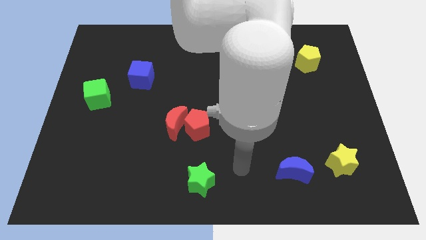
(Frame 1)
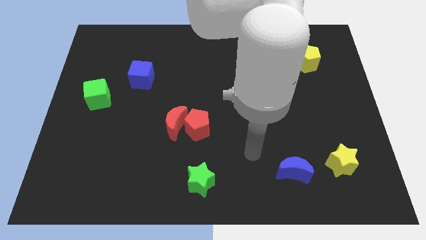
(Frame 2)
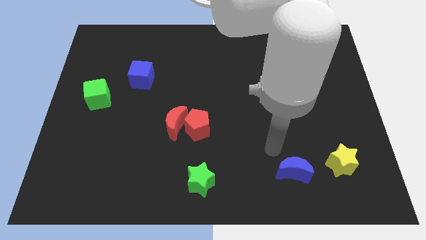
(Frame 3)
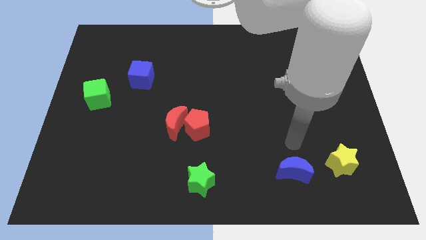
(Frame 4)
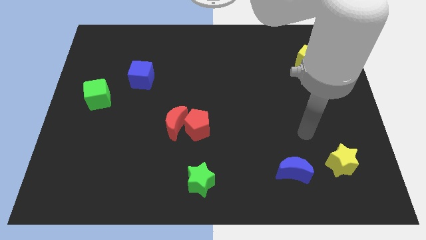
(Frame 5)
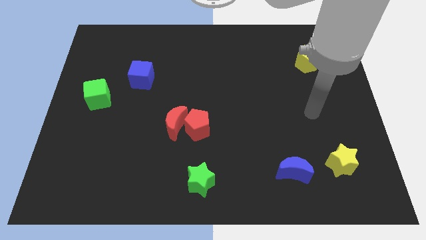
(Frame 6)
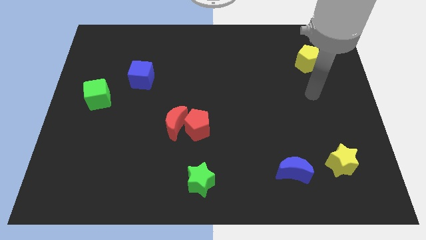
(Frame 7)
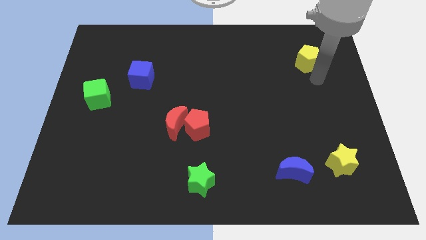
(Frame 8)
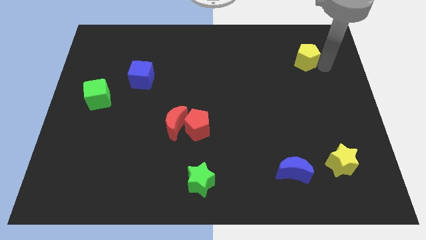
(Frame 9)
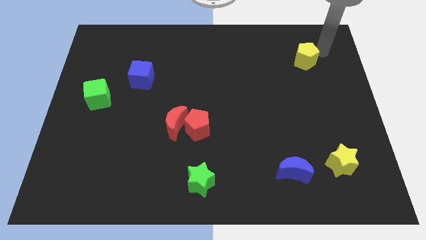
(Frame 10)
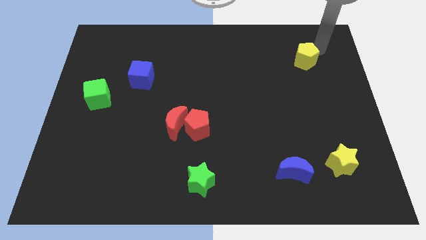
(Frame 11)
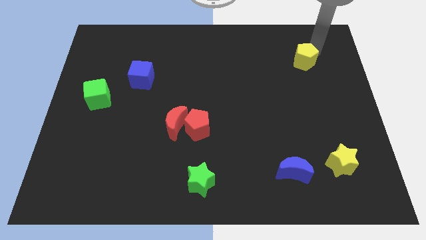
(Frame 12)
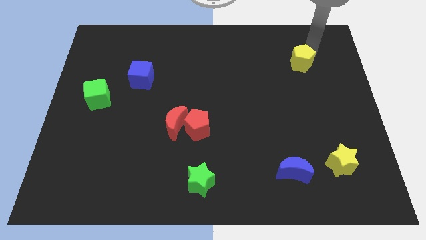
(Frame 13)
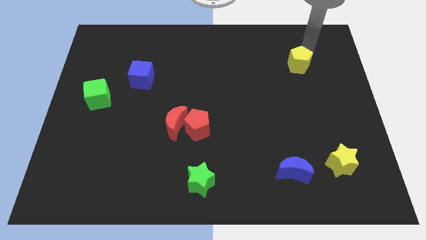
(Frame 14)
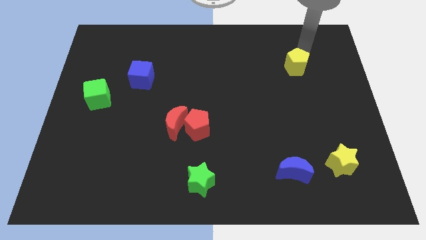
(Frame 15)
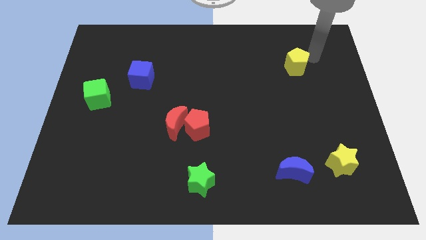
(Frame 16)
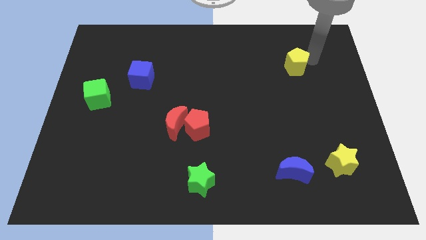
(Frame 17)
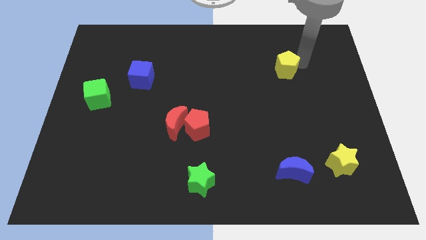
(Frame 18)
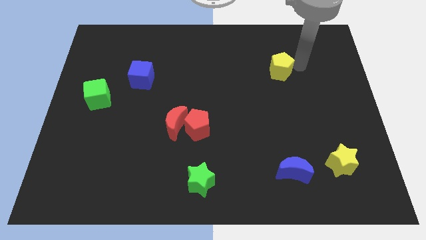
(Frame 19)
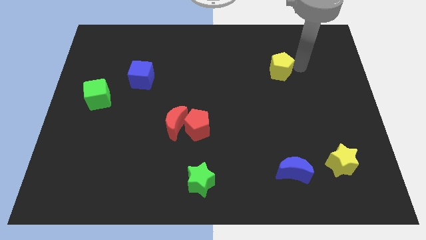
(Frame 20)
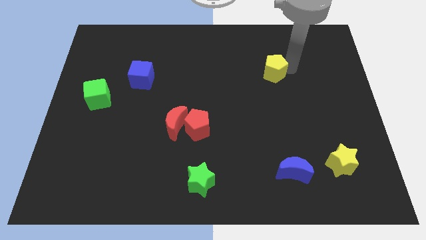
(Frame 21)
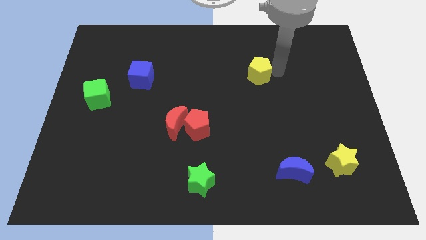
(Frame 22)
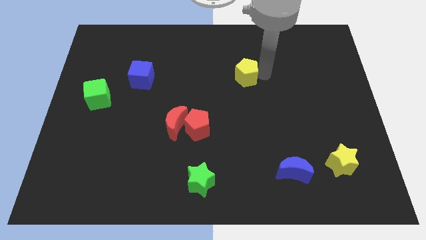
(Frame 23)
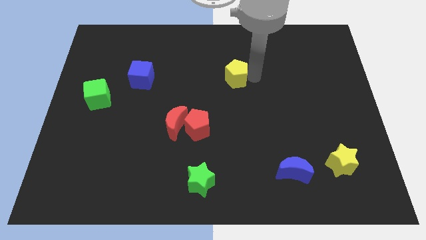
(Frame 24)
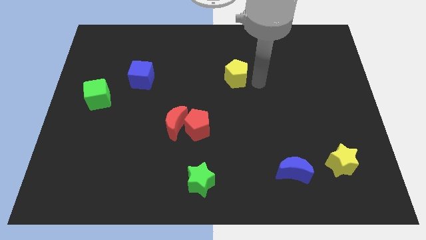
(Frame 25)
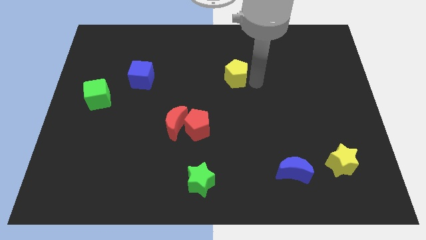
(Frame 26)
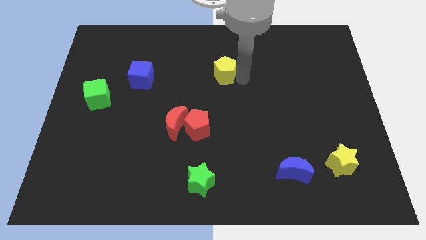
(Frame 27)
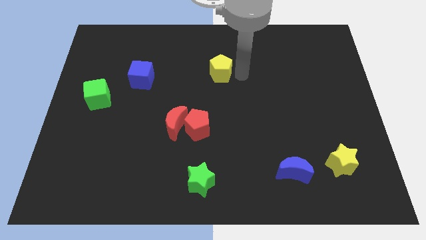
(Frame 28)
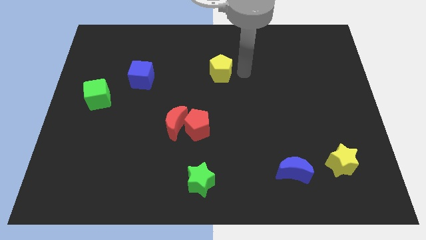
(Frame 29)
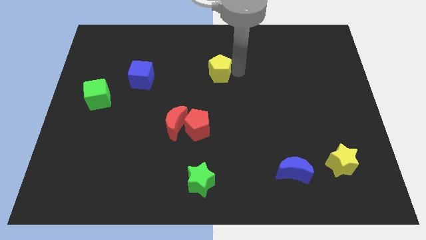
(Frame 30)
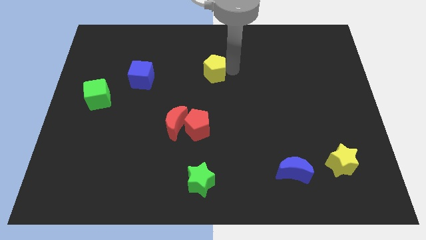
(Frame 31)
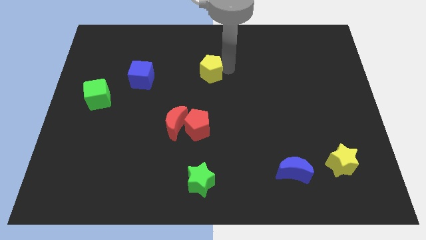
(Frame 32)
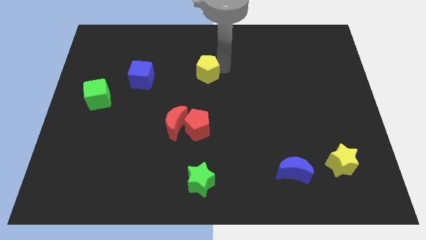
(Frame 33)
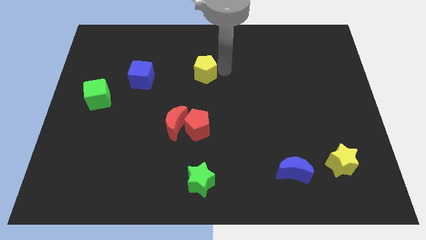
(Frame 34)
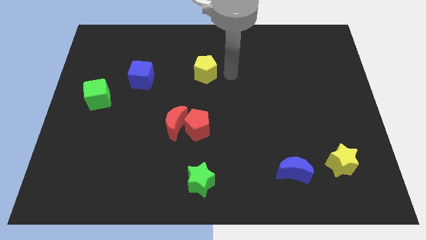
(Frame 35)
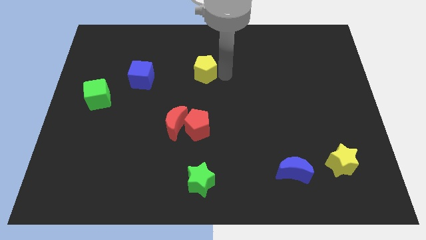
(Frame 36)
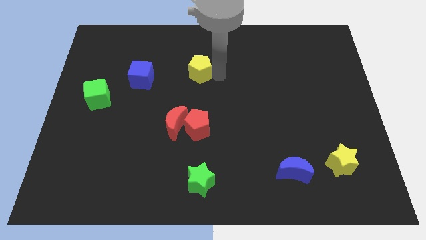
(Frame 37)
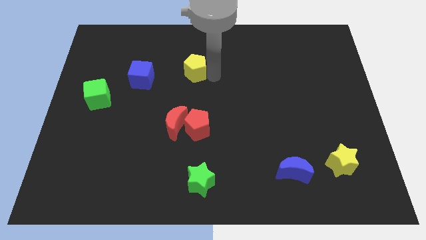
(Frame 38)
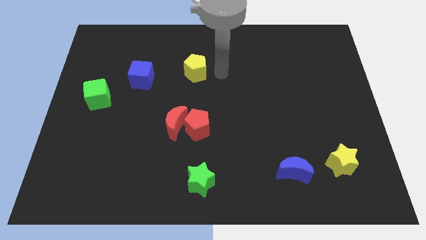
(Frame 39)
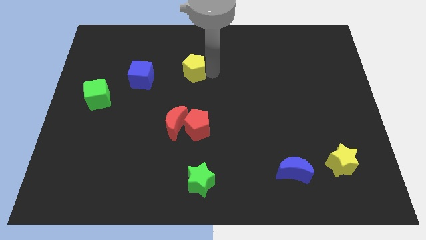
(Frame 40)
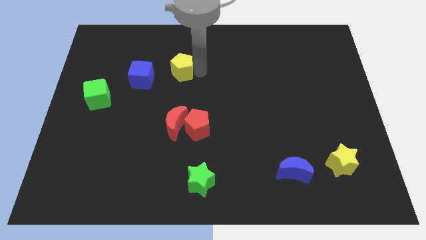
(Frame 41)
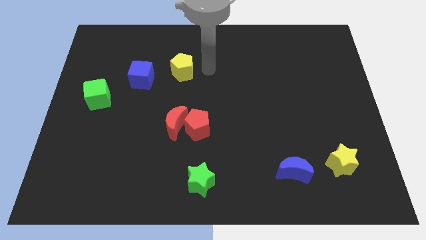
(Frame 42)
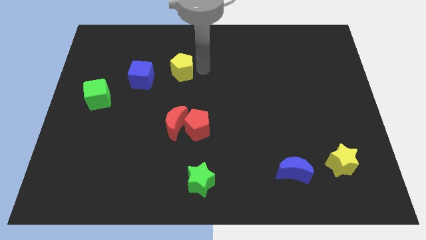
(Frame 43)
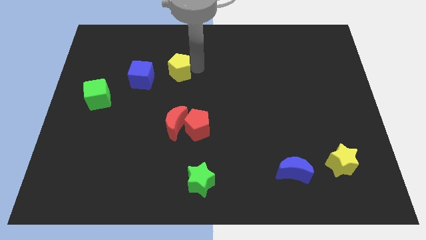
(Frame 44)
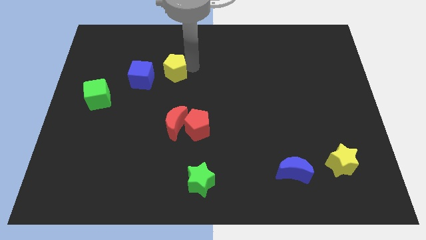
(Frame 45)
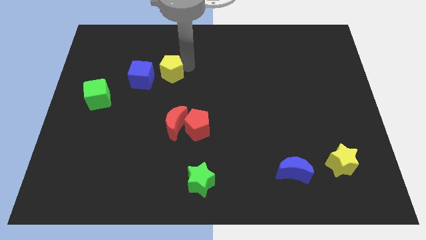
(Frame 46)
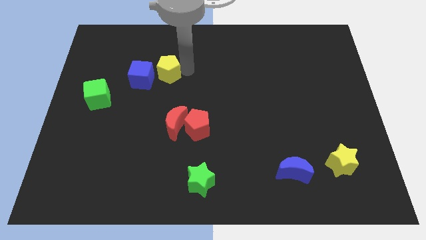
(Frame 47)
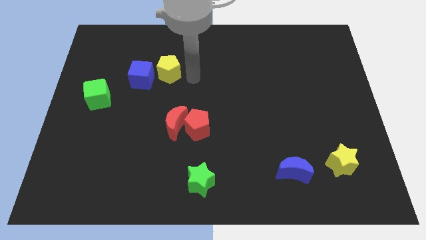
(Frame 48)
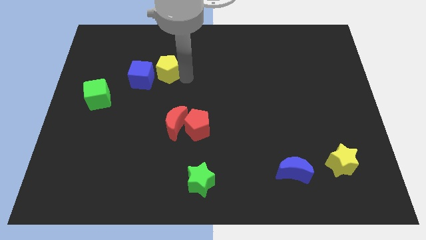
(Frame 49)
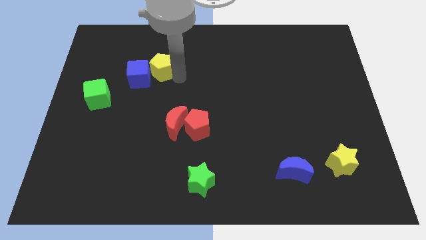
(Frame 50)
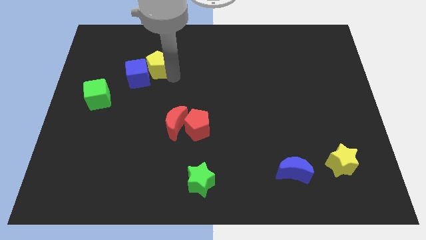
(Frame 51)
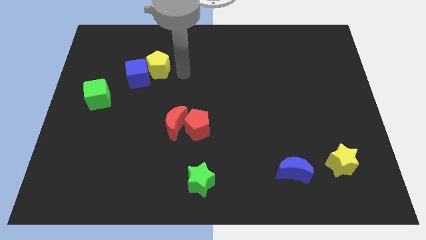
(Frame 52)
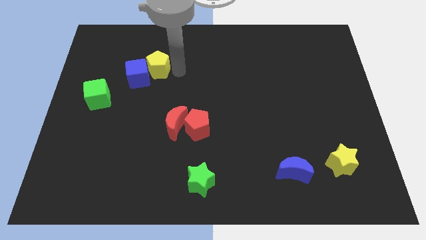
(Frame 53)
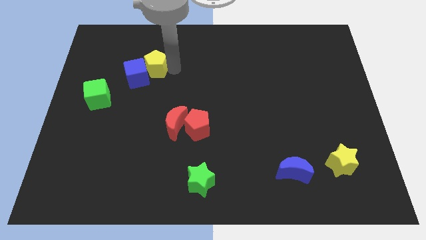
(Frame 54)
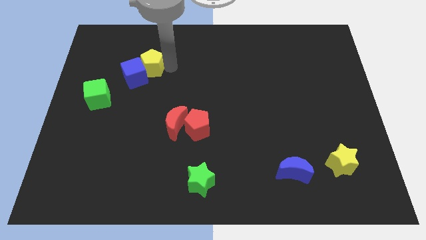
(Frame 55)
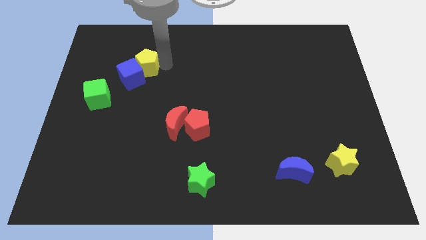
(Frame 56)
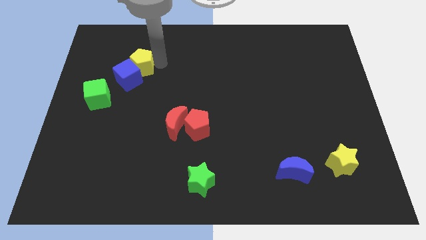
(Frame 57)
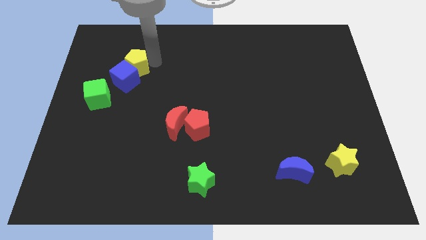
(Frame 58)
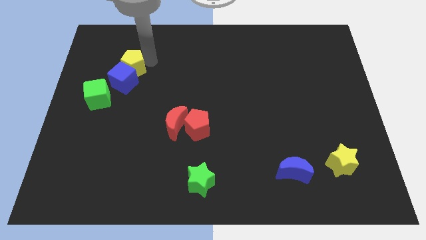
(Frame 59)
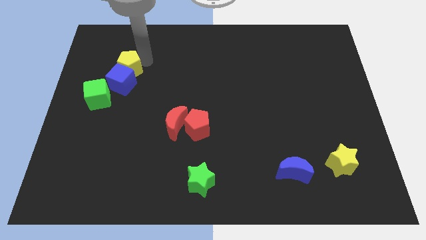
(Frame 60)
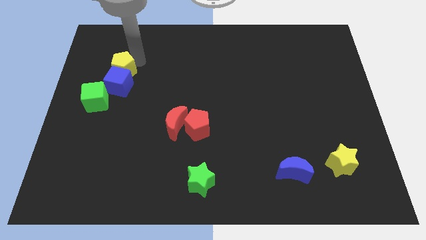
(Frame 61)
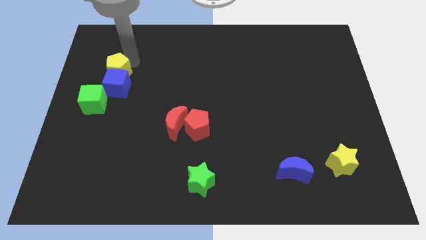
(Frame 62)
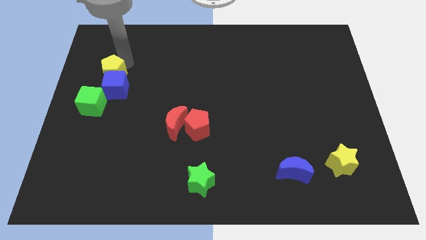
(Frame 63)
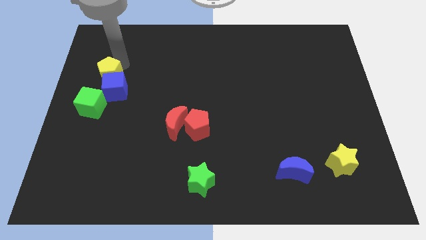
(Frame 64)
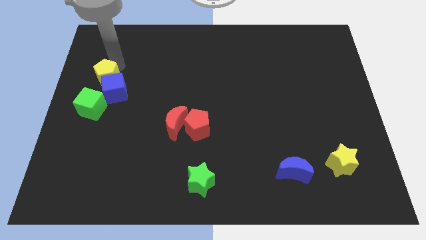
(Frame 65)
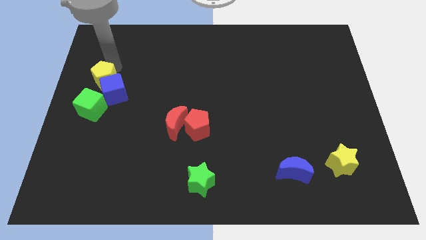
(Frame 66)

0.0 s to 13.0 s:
put the yellow pentagon to the left side

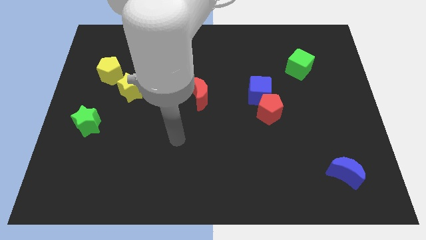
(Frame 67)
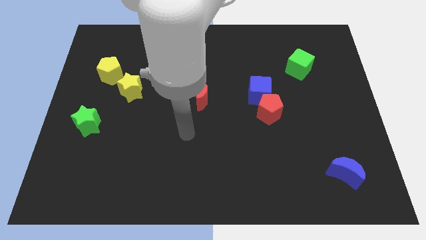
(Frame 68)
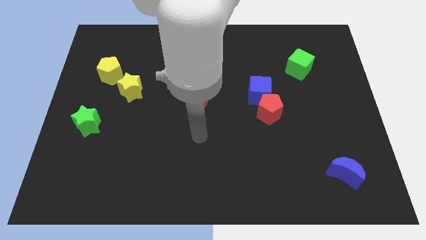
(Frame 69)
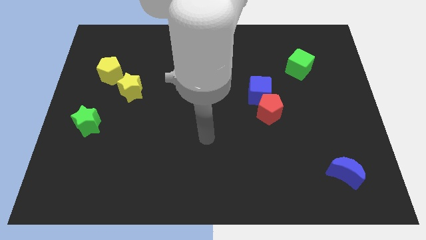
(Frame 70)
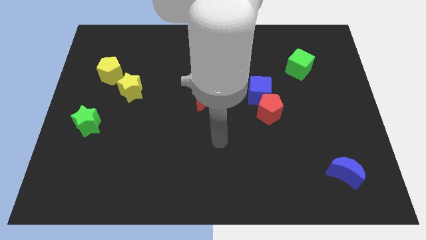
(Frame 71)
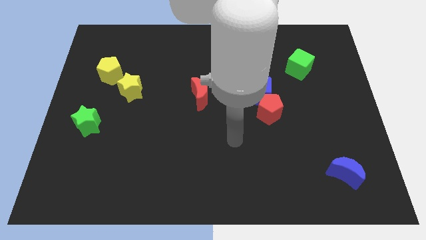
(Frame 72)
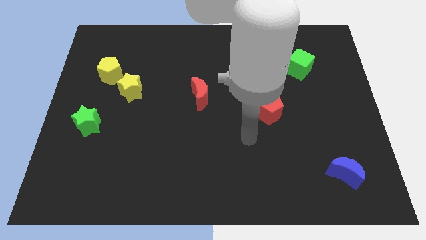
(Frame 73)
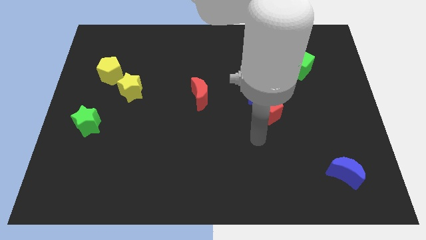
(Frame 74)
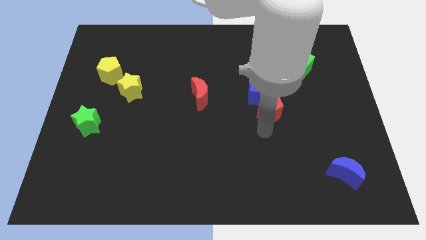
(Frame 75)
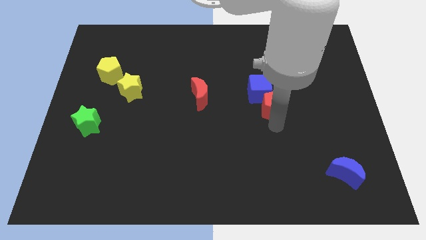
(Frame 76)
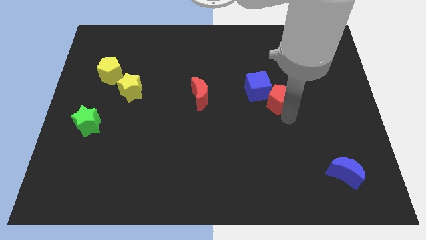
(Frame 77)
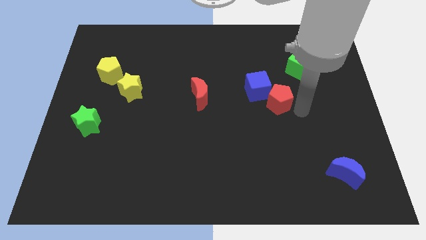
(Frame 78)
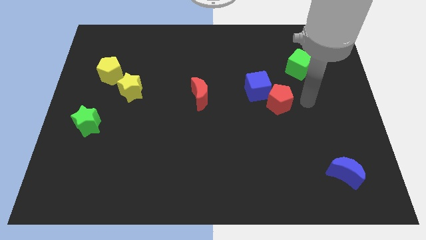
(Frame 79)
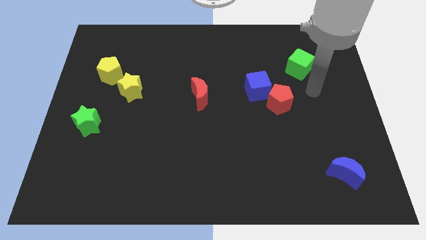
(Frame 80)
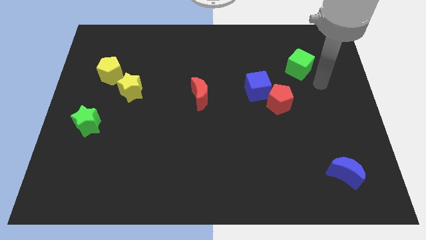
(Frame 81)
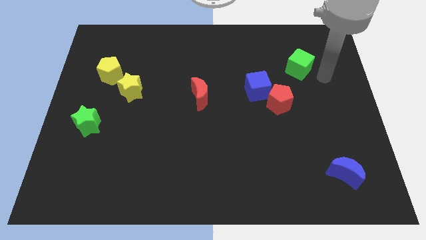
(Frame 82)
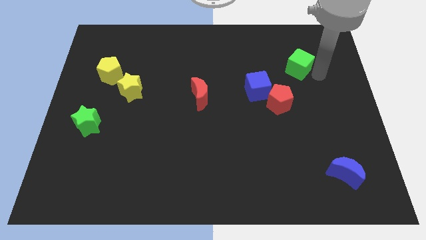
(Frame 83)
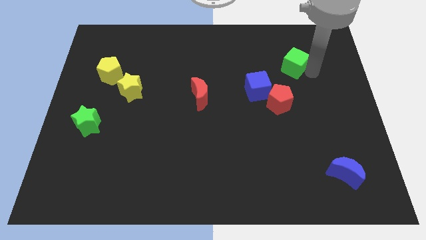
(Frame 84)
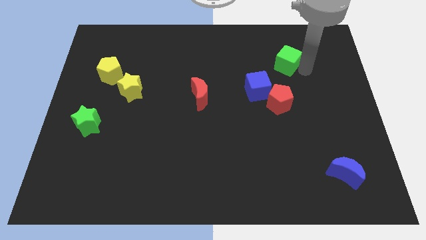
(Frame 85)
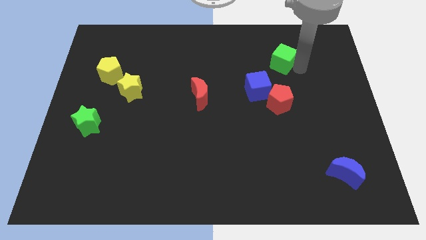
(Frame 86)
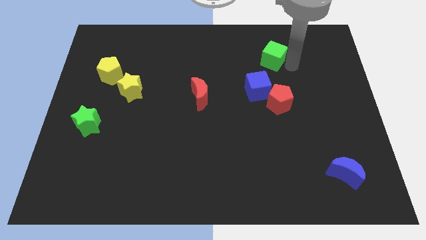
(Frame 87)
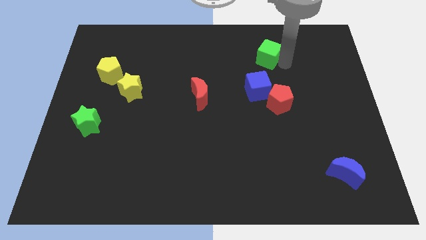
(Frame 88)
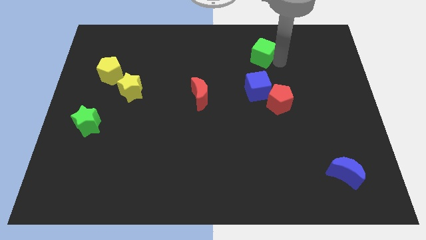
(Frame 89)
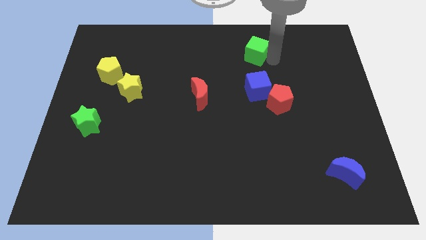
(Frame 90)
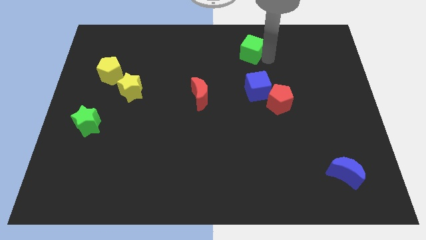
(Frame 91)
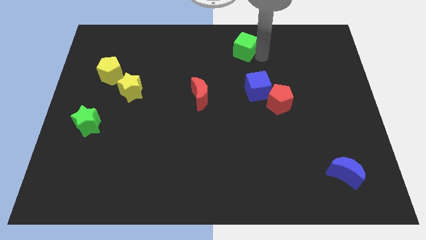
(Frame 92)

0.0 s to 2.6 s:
push the green cube to the towards your base
